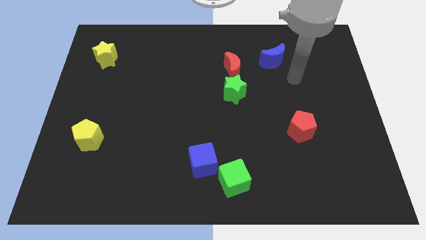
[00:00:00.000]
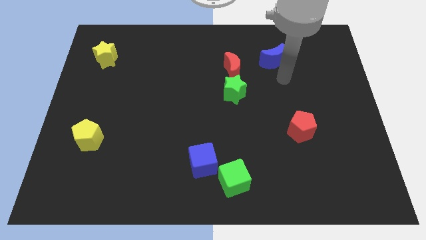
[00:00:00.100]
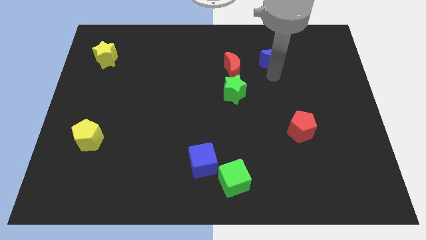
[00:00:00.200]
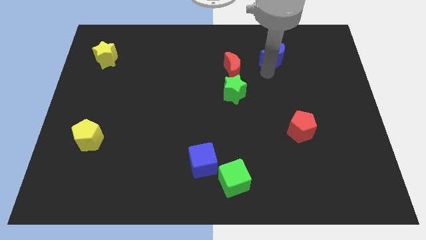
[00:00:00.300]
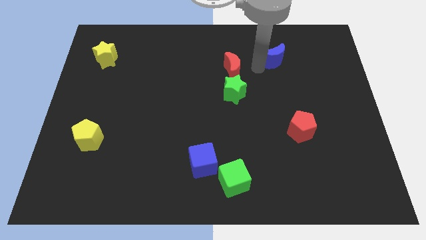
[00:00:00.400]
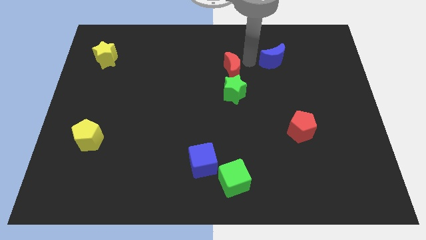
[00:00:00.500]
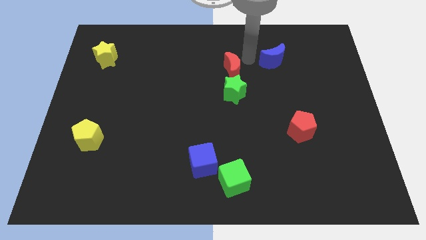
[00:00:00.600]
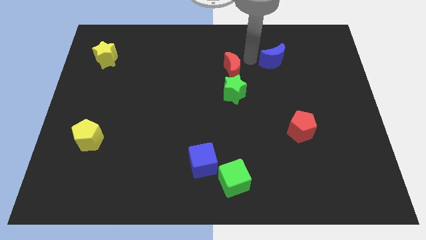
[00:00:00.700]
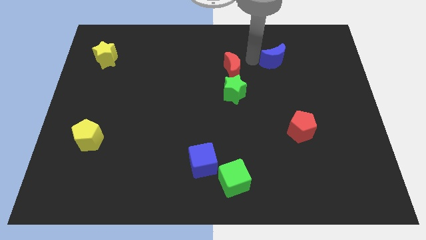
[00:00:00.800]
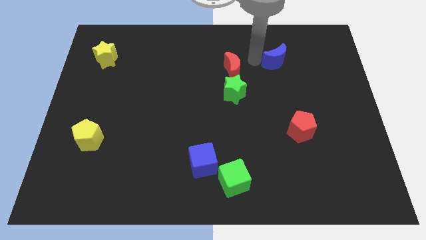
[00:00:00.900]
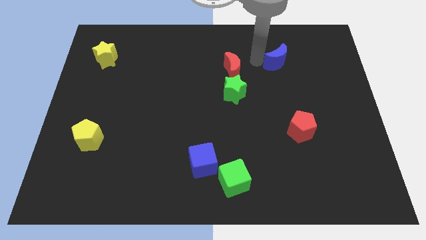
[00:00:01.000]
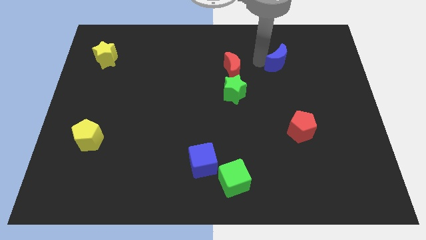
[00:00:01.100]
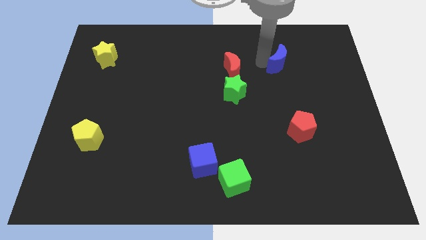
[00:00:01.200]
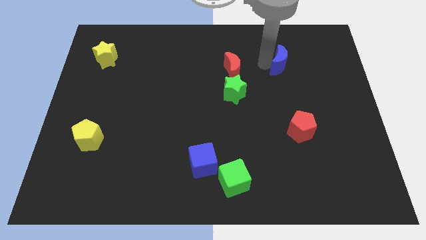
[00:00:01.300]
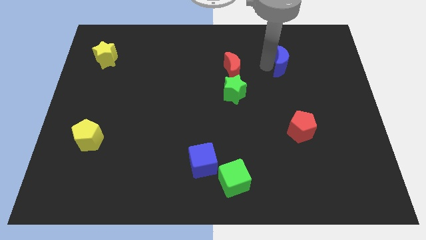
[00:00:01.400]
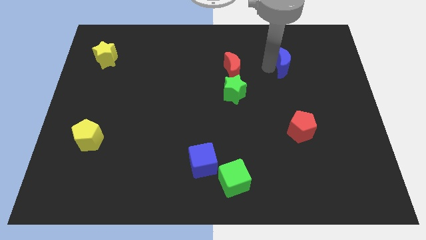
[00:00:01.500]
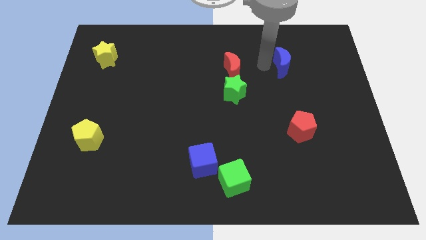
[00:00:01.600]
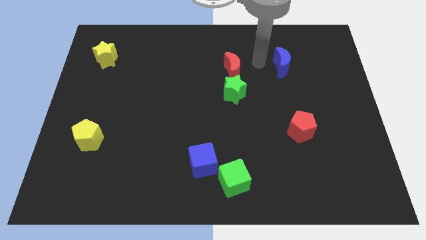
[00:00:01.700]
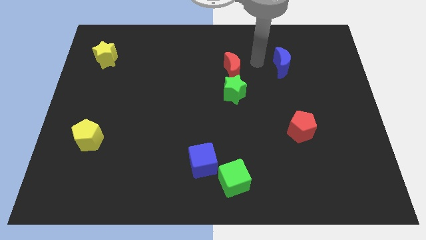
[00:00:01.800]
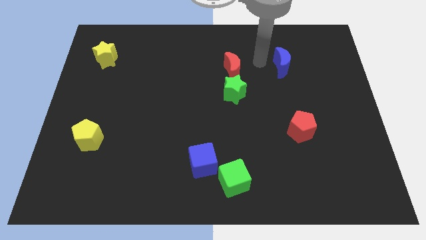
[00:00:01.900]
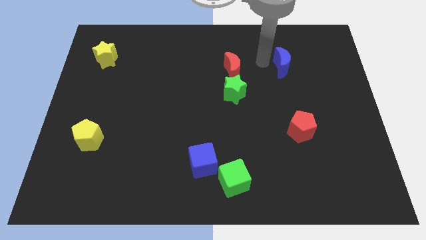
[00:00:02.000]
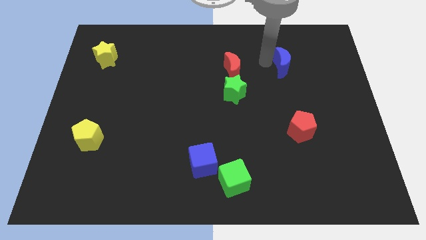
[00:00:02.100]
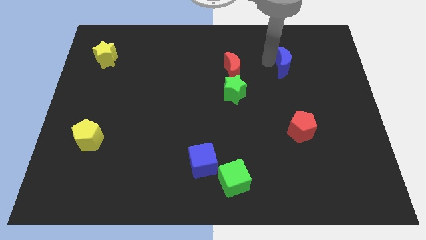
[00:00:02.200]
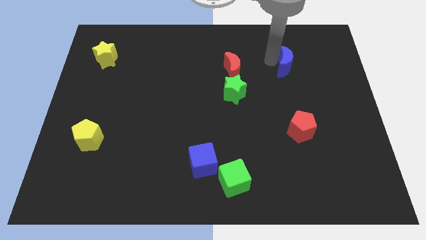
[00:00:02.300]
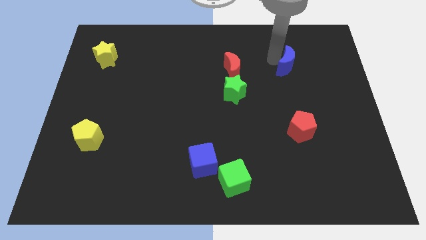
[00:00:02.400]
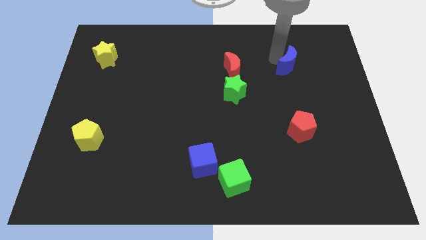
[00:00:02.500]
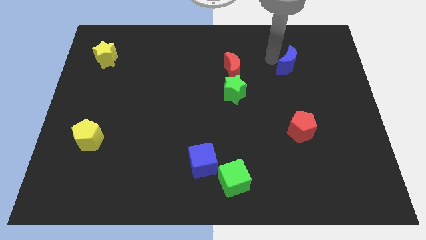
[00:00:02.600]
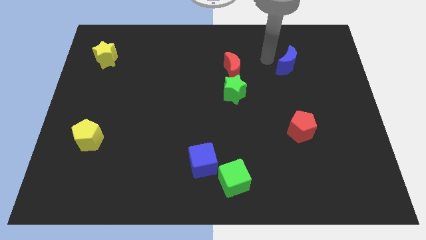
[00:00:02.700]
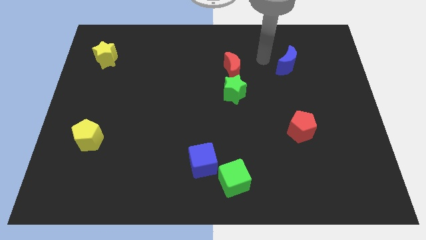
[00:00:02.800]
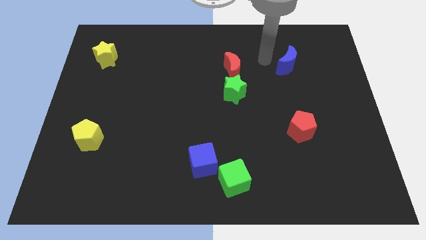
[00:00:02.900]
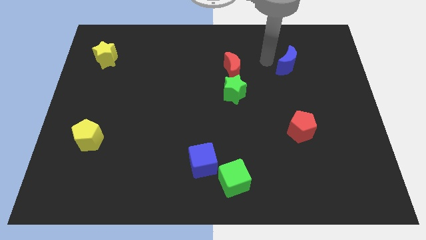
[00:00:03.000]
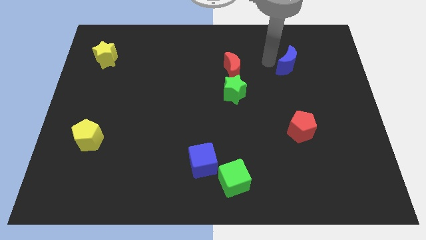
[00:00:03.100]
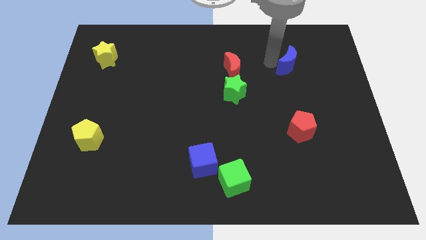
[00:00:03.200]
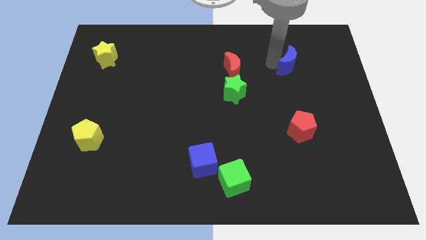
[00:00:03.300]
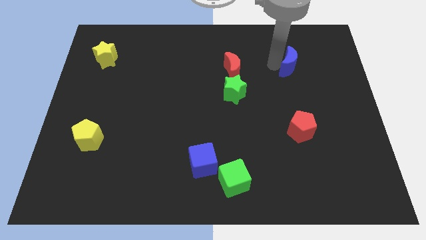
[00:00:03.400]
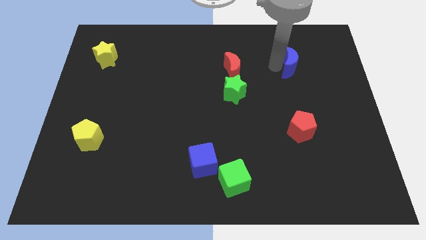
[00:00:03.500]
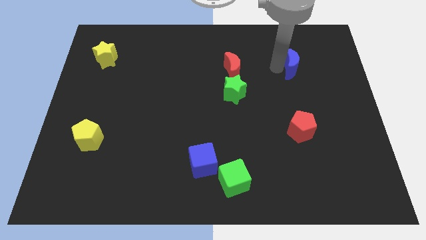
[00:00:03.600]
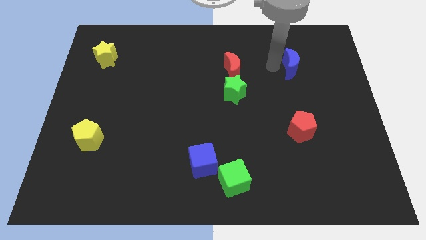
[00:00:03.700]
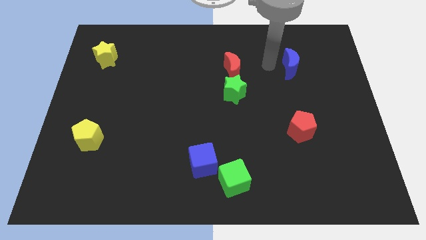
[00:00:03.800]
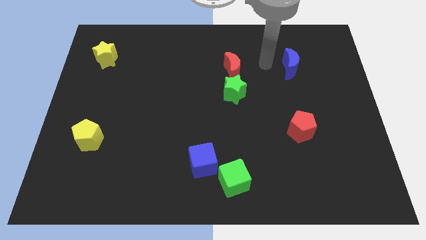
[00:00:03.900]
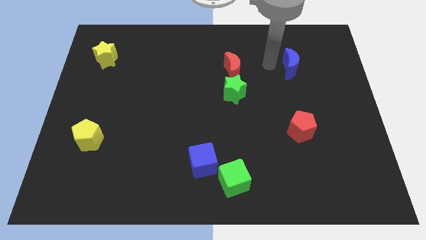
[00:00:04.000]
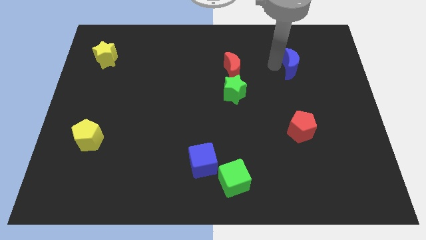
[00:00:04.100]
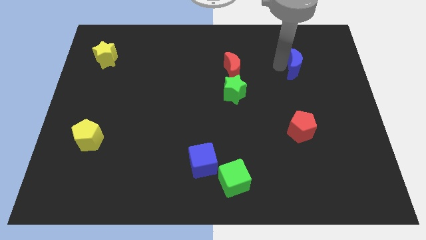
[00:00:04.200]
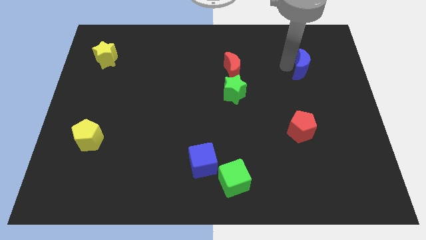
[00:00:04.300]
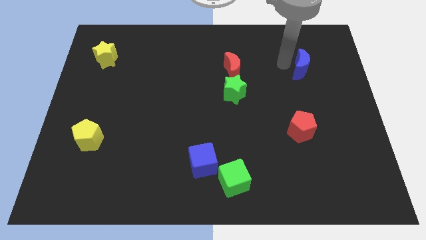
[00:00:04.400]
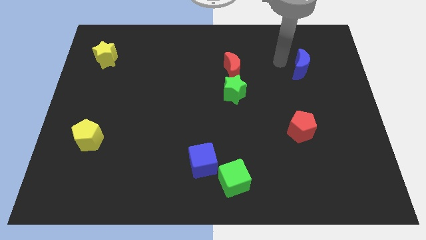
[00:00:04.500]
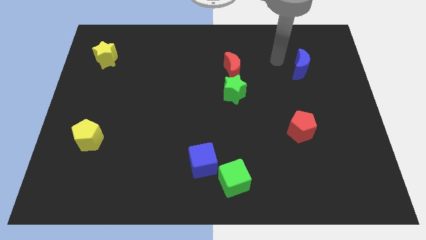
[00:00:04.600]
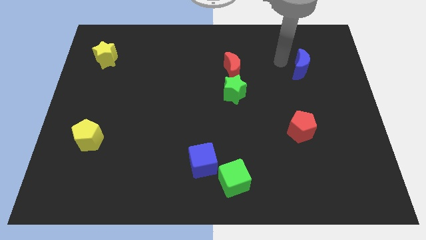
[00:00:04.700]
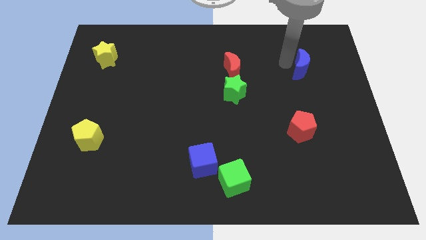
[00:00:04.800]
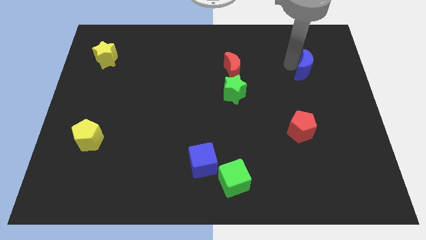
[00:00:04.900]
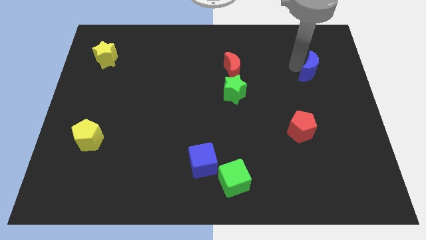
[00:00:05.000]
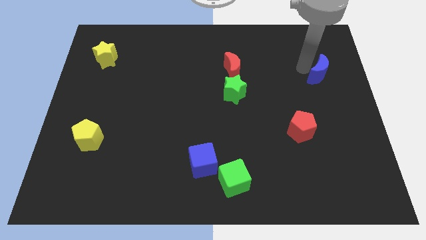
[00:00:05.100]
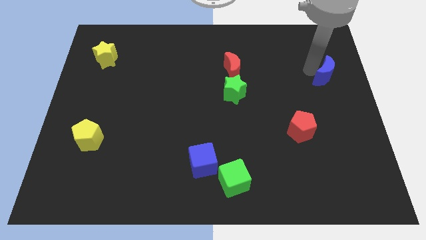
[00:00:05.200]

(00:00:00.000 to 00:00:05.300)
put the blue moon to the right side
